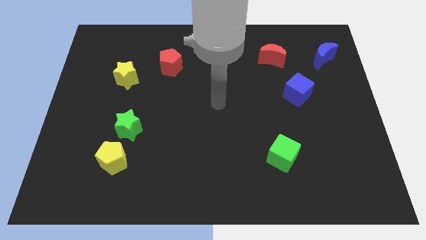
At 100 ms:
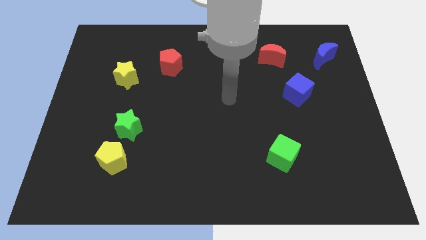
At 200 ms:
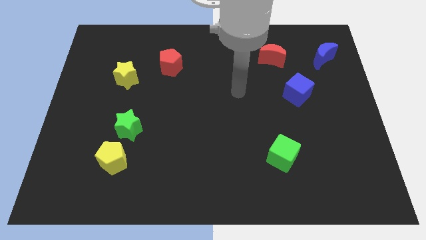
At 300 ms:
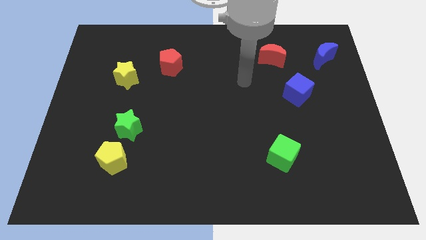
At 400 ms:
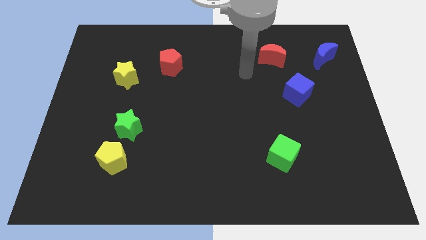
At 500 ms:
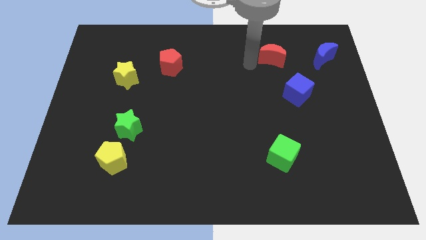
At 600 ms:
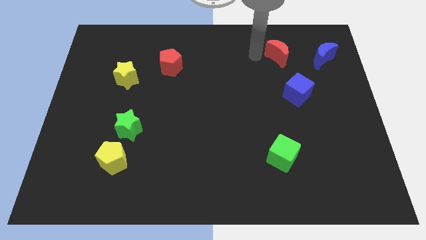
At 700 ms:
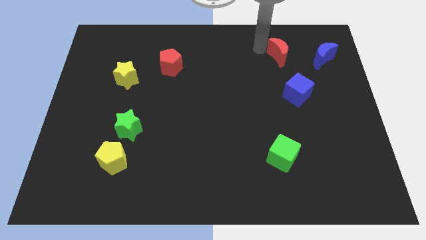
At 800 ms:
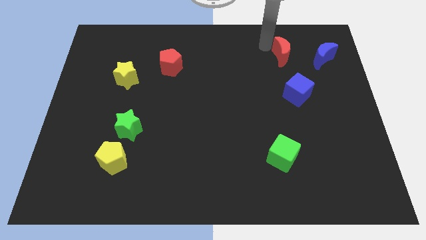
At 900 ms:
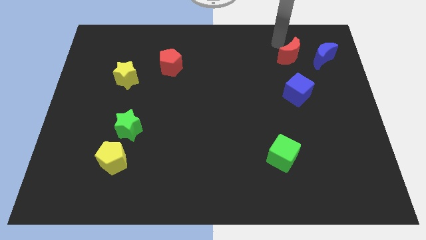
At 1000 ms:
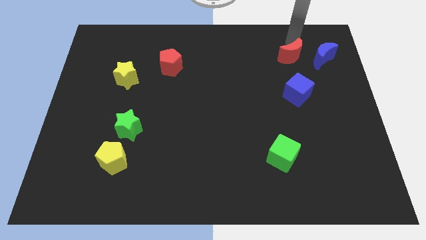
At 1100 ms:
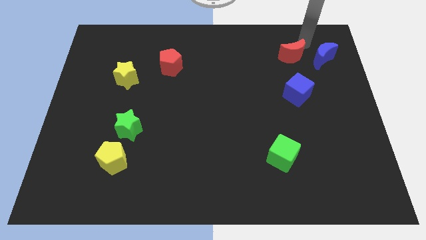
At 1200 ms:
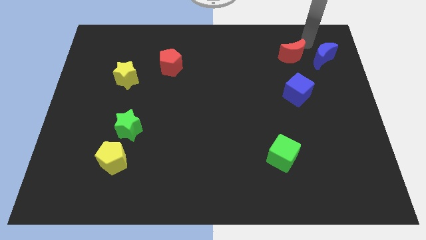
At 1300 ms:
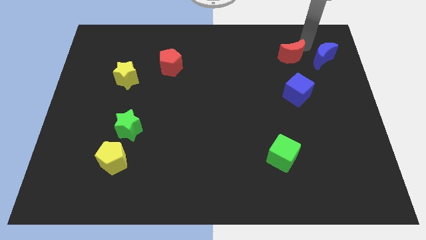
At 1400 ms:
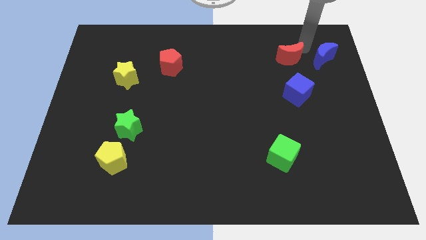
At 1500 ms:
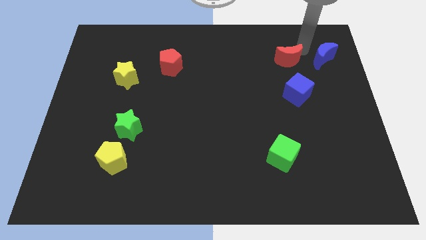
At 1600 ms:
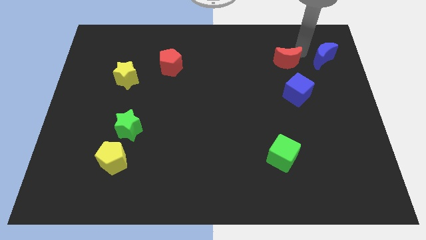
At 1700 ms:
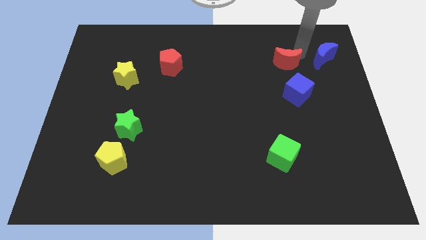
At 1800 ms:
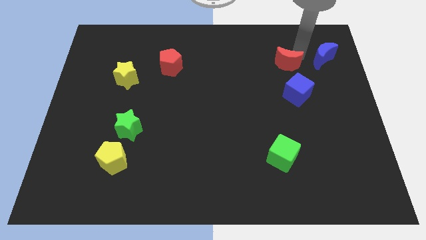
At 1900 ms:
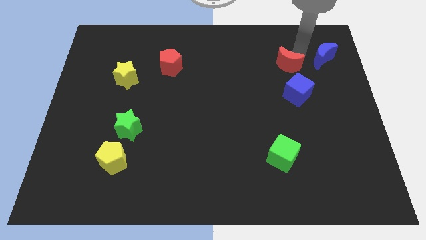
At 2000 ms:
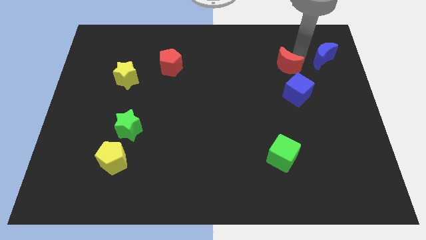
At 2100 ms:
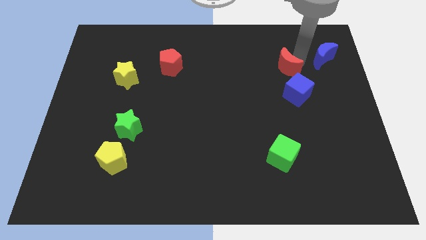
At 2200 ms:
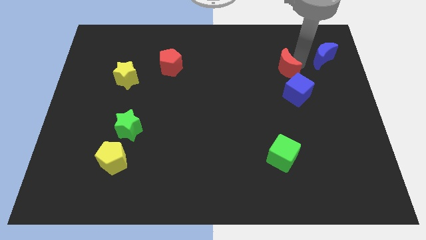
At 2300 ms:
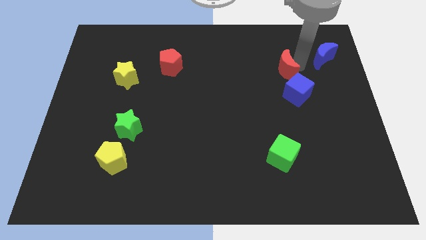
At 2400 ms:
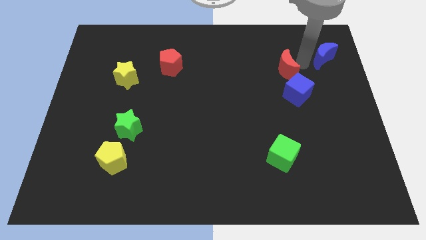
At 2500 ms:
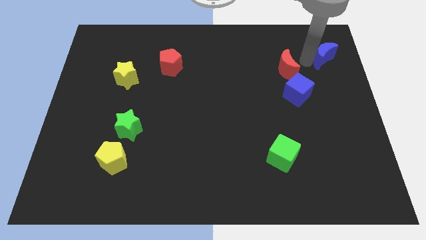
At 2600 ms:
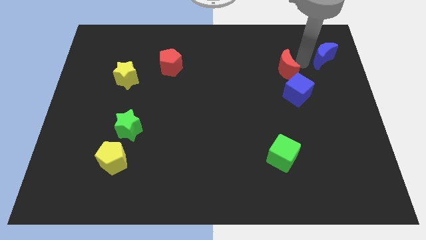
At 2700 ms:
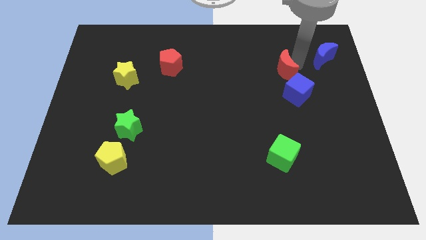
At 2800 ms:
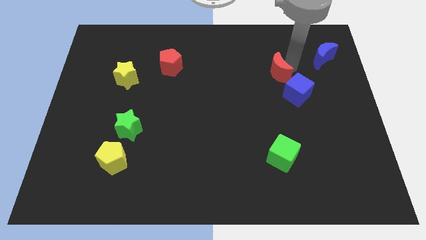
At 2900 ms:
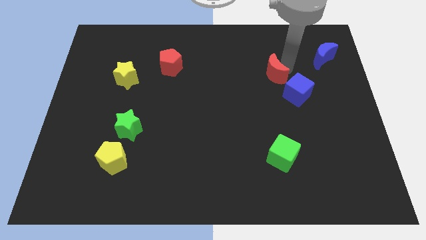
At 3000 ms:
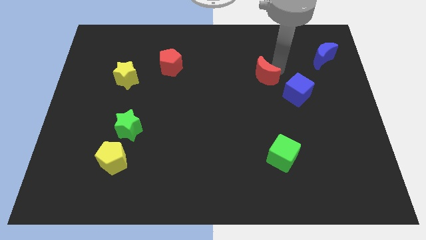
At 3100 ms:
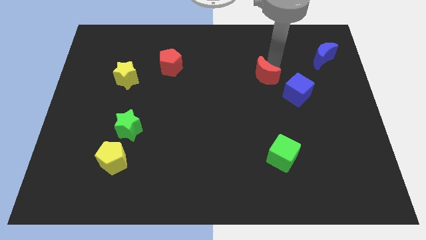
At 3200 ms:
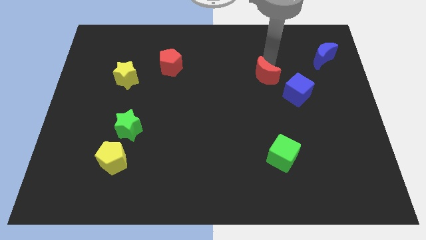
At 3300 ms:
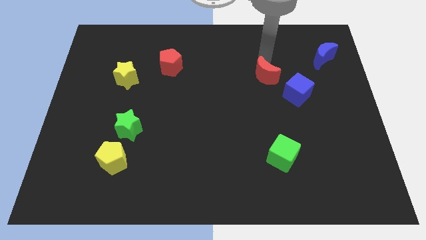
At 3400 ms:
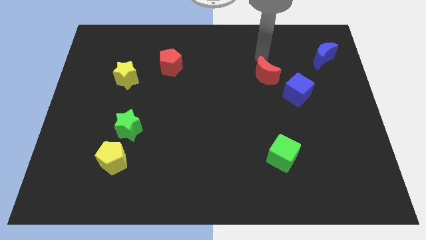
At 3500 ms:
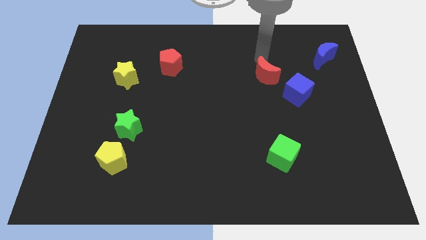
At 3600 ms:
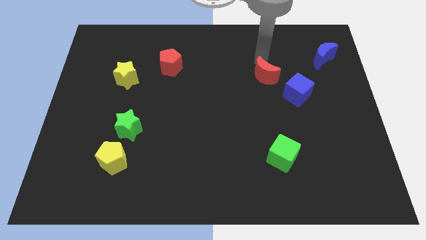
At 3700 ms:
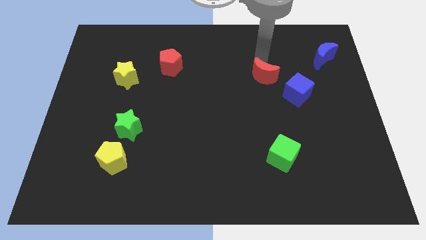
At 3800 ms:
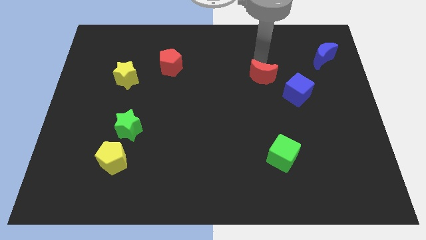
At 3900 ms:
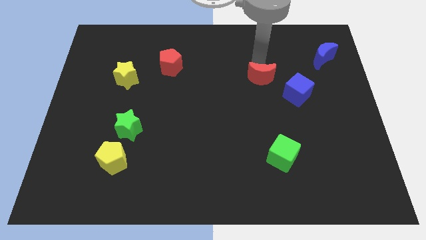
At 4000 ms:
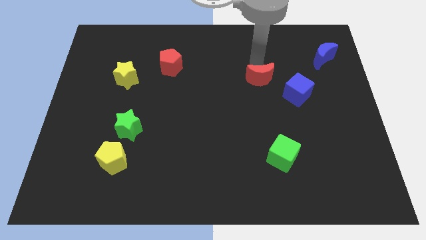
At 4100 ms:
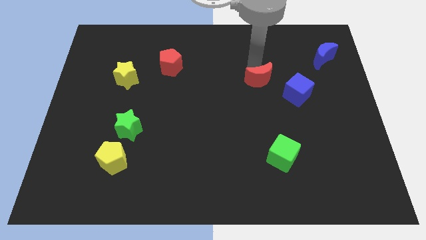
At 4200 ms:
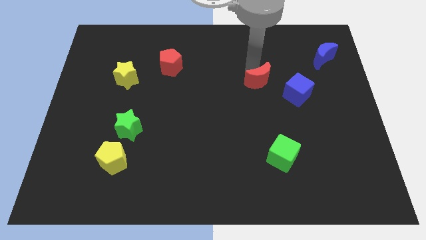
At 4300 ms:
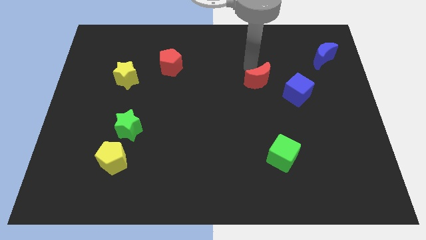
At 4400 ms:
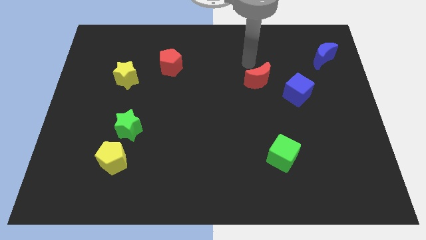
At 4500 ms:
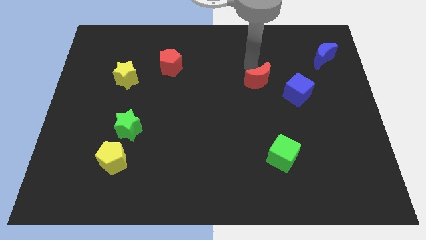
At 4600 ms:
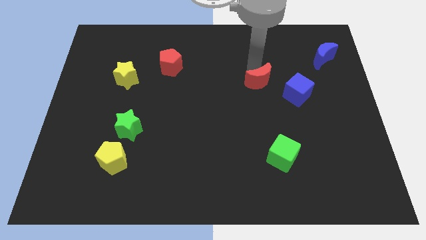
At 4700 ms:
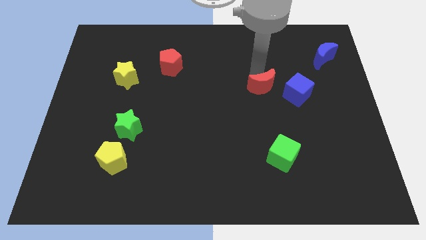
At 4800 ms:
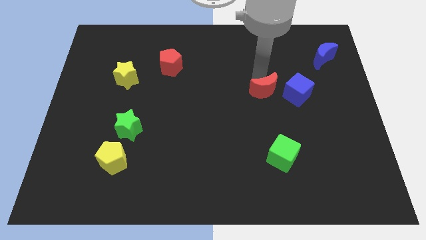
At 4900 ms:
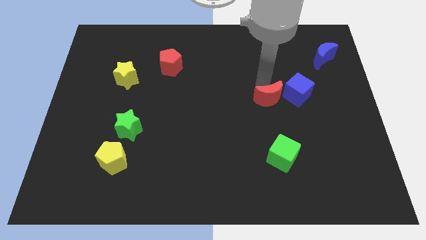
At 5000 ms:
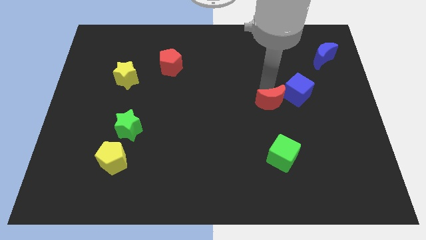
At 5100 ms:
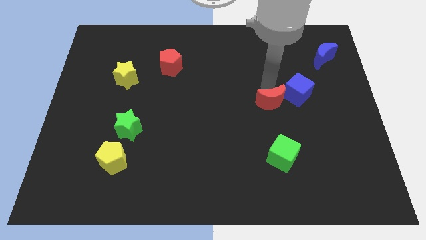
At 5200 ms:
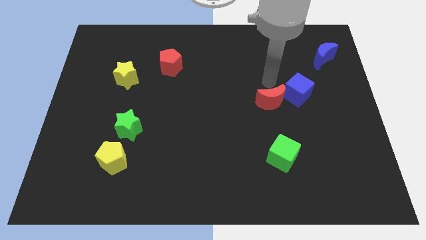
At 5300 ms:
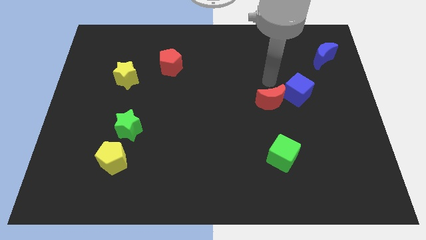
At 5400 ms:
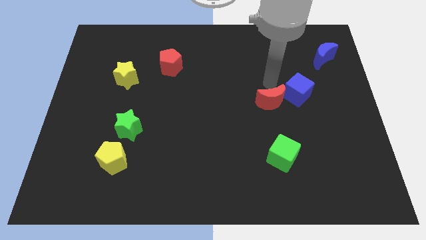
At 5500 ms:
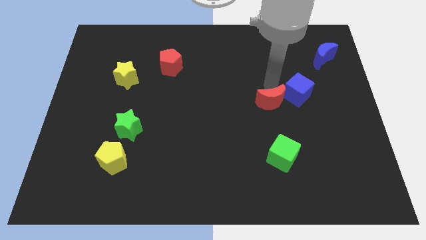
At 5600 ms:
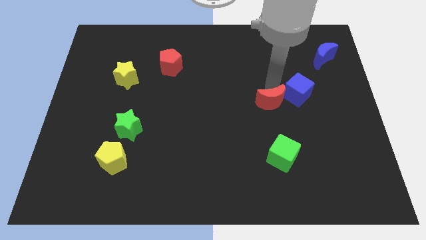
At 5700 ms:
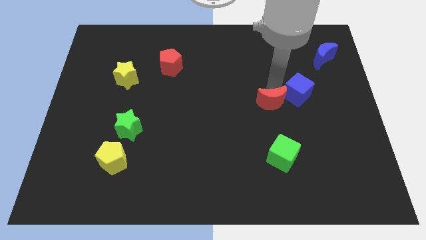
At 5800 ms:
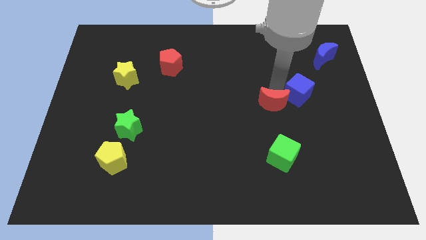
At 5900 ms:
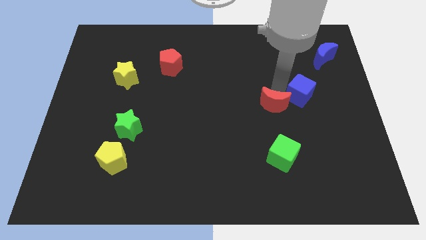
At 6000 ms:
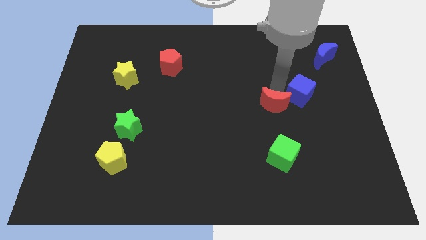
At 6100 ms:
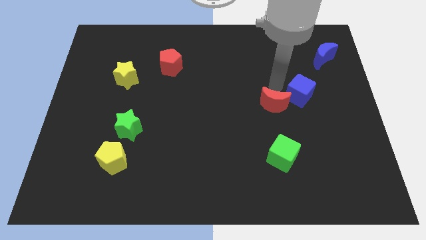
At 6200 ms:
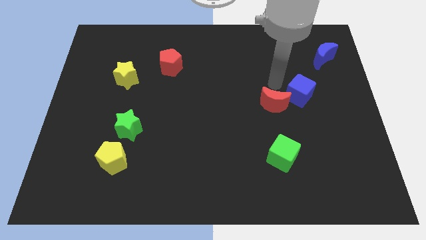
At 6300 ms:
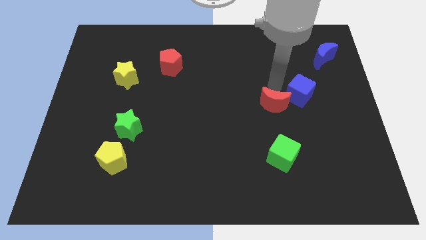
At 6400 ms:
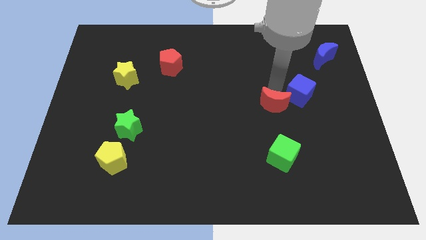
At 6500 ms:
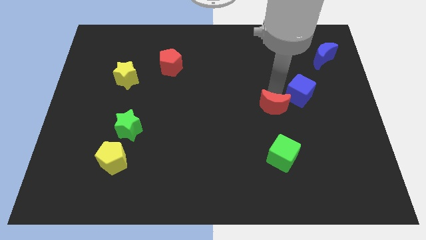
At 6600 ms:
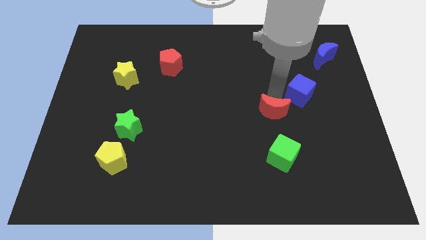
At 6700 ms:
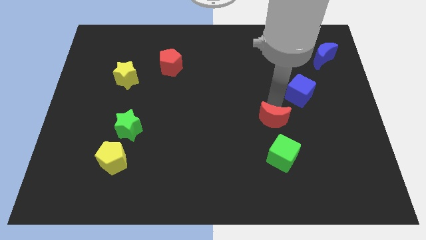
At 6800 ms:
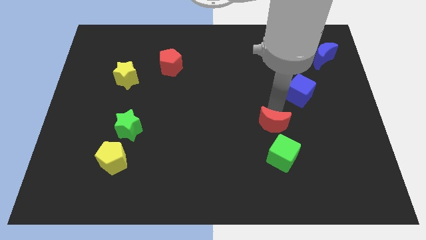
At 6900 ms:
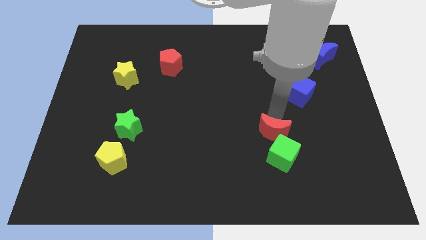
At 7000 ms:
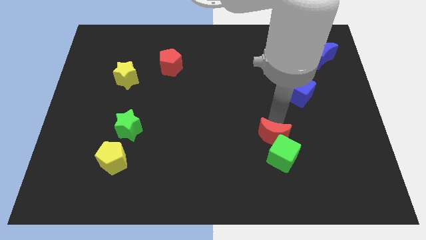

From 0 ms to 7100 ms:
push the red moon next to the green cube

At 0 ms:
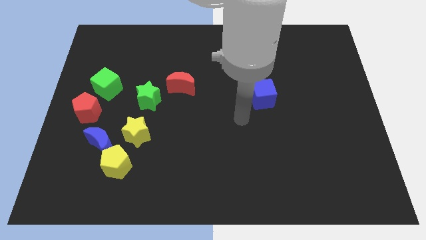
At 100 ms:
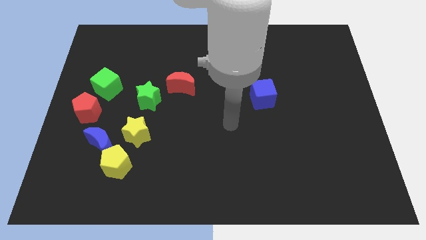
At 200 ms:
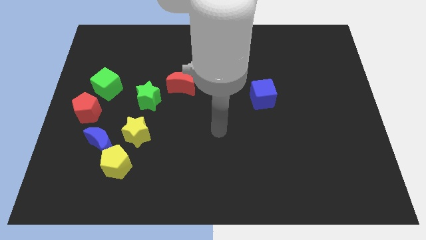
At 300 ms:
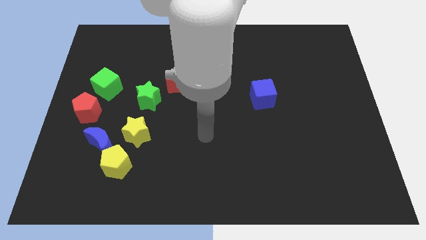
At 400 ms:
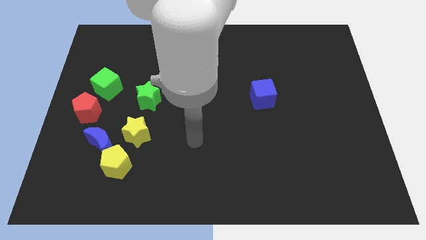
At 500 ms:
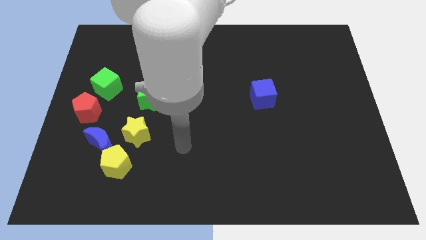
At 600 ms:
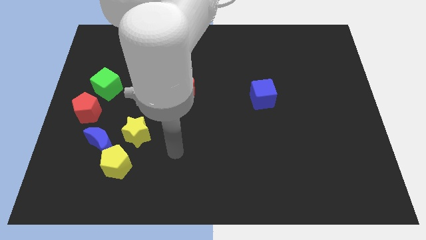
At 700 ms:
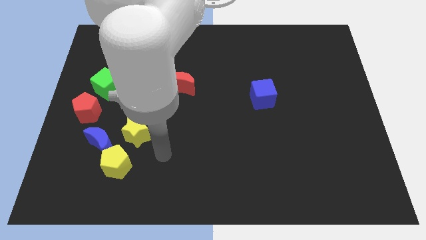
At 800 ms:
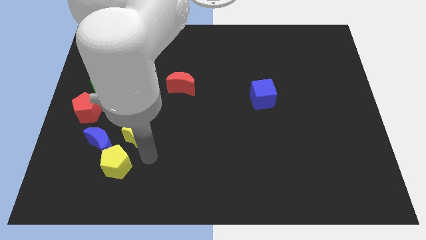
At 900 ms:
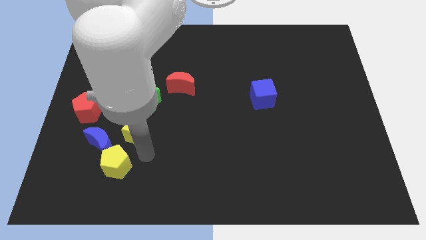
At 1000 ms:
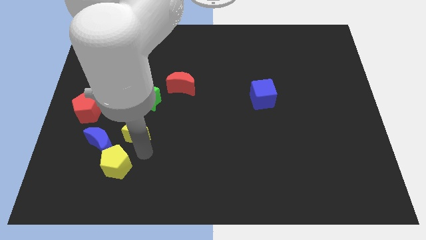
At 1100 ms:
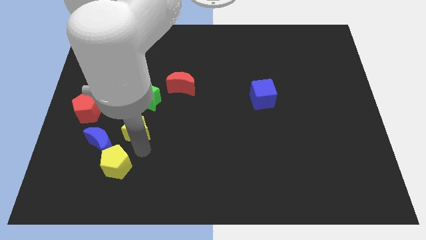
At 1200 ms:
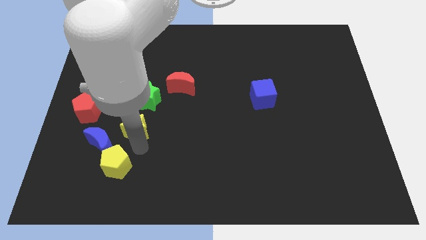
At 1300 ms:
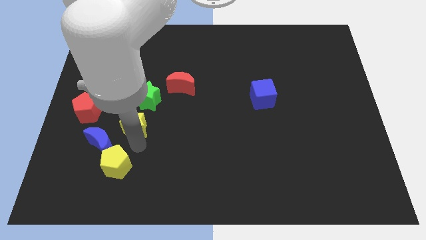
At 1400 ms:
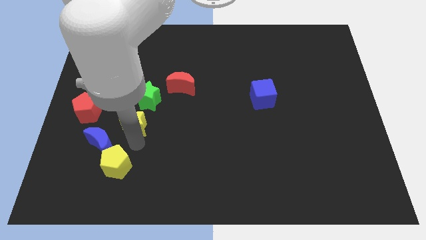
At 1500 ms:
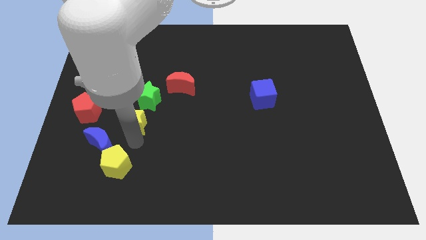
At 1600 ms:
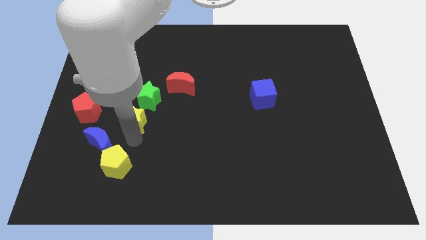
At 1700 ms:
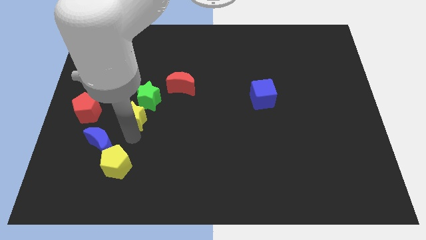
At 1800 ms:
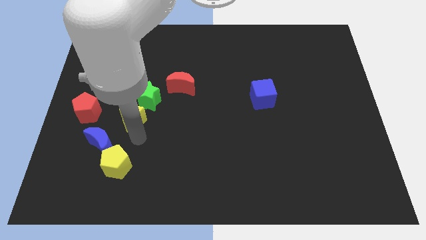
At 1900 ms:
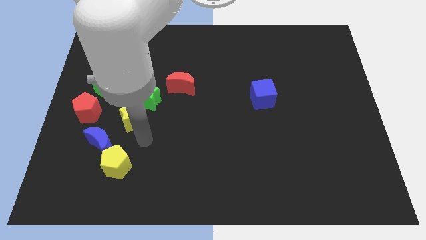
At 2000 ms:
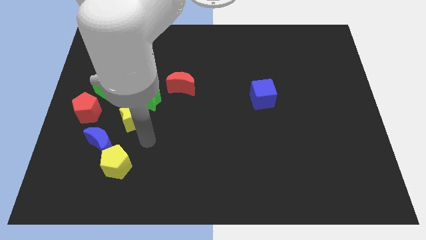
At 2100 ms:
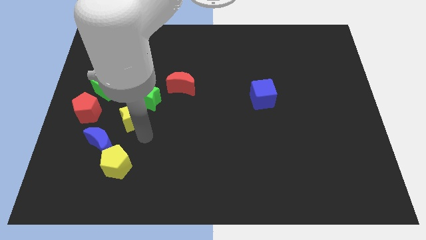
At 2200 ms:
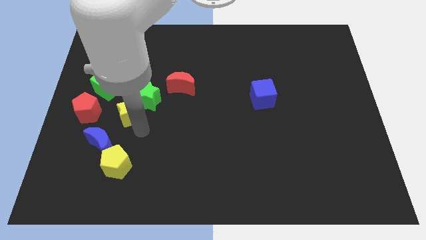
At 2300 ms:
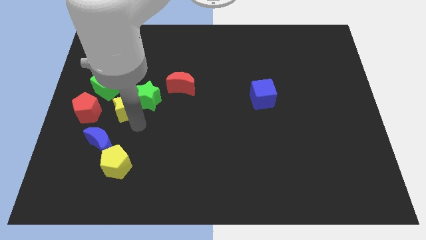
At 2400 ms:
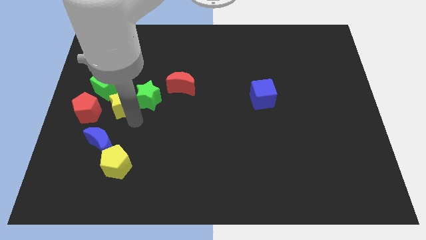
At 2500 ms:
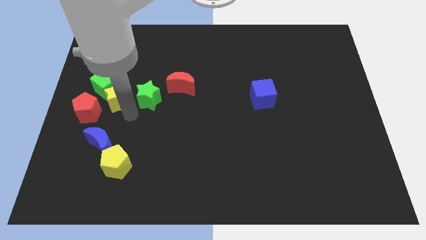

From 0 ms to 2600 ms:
put the yellow star towards the green cube
